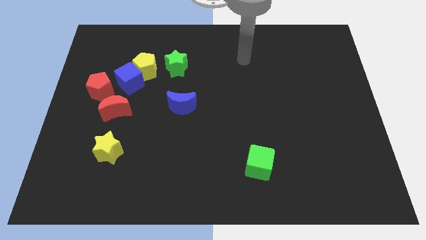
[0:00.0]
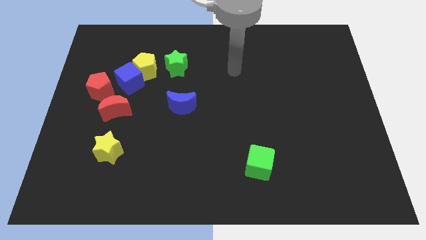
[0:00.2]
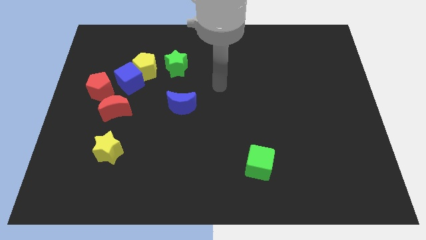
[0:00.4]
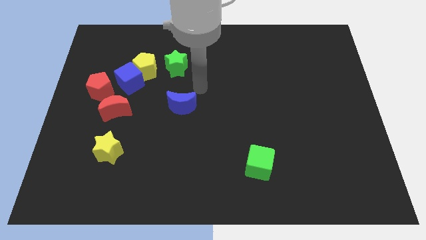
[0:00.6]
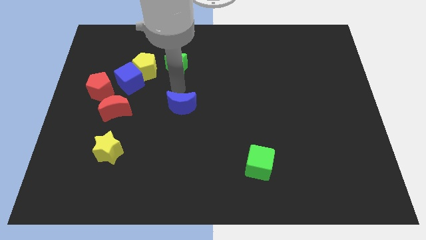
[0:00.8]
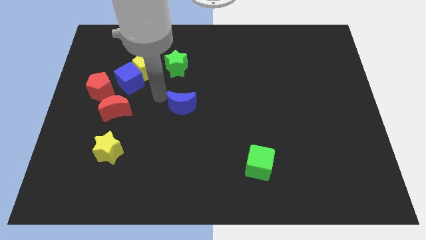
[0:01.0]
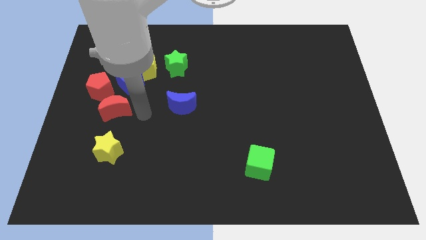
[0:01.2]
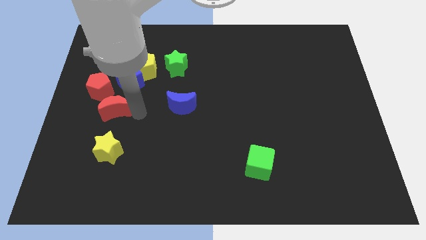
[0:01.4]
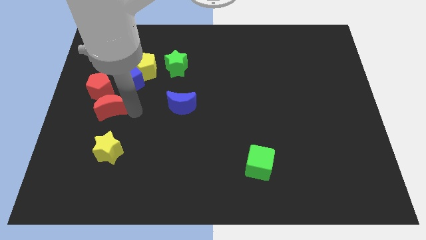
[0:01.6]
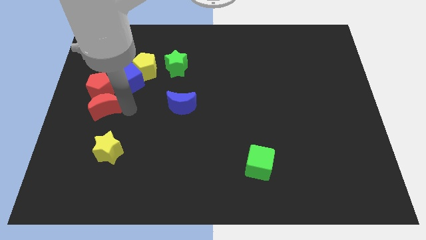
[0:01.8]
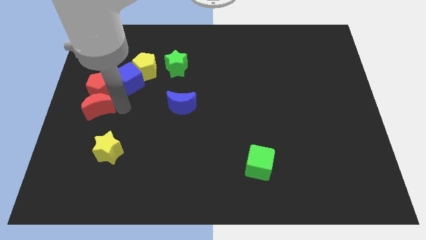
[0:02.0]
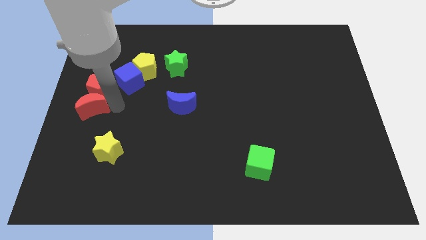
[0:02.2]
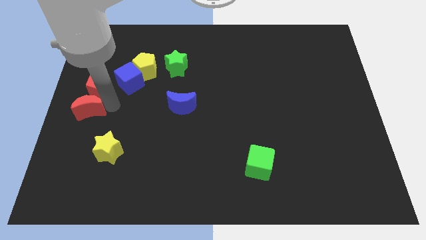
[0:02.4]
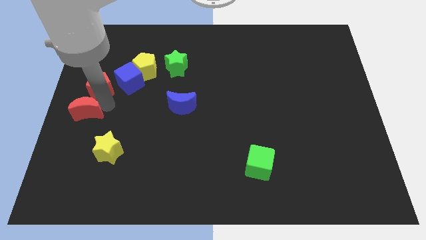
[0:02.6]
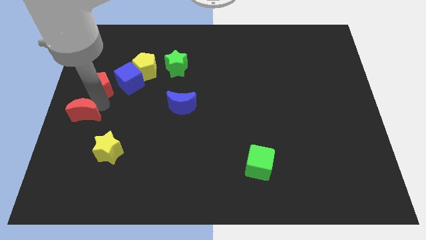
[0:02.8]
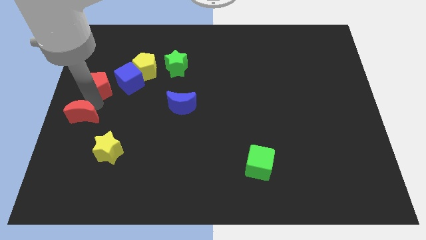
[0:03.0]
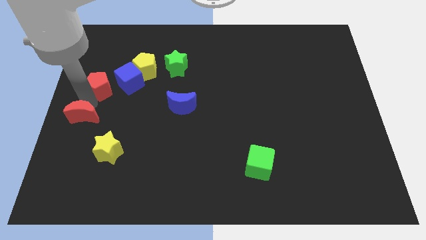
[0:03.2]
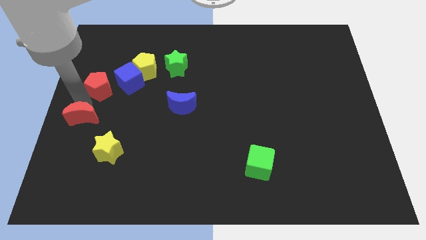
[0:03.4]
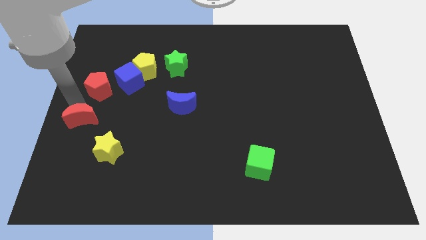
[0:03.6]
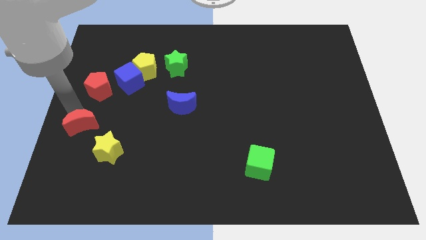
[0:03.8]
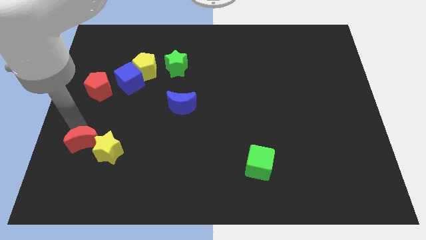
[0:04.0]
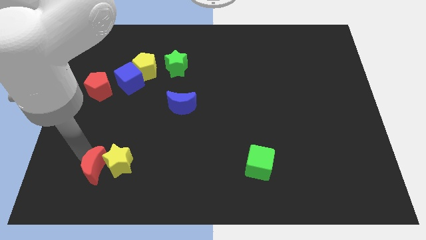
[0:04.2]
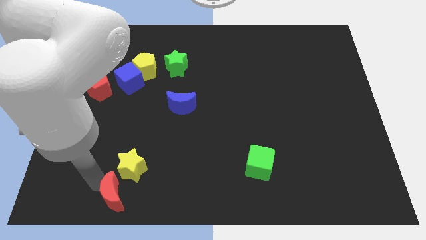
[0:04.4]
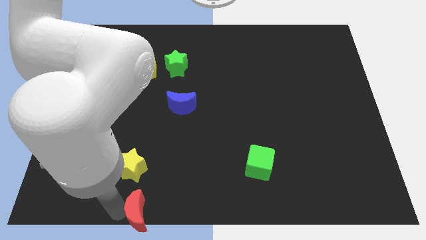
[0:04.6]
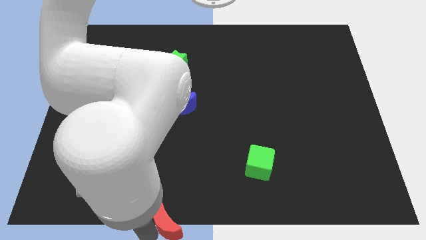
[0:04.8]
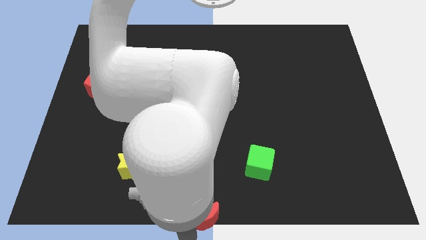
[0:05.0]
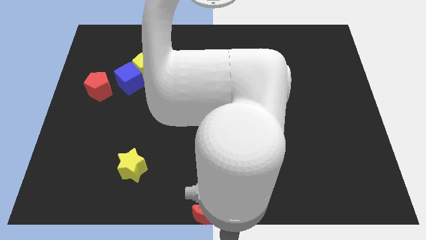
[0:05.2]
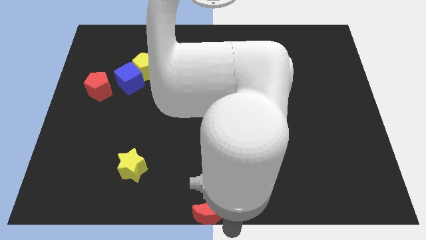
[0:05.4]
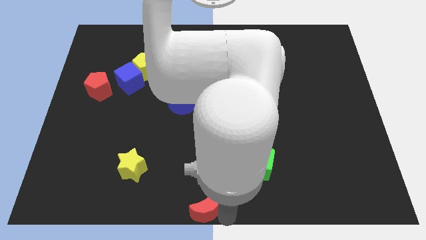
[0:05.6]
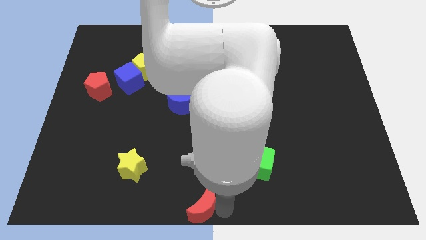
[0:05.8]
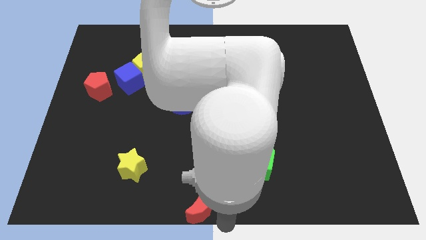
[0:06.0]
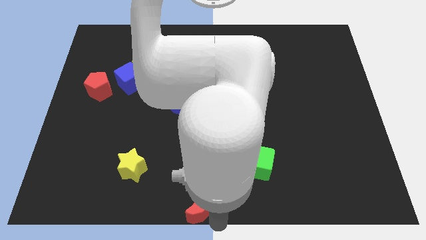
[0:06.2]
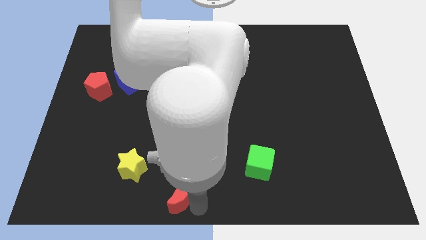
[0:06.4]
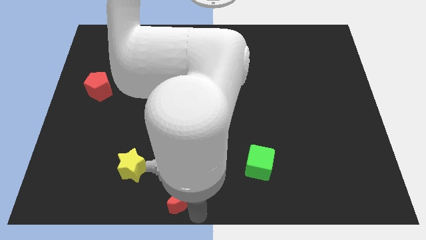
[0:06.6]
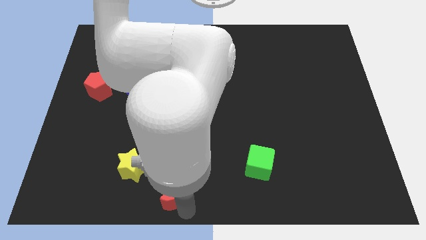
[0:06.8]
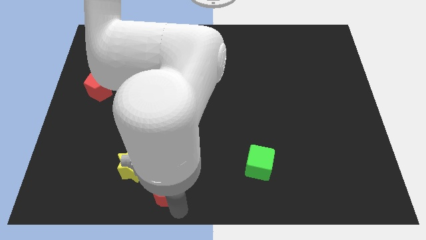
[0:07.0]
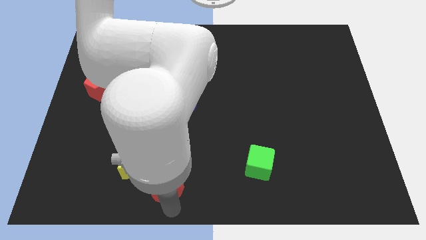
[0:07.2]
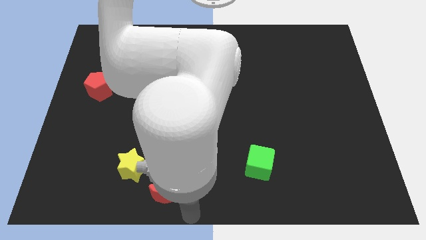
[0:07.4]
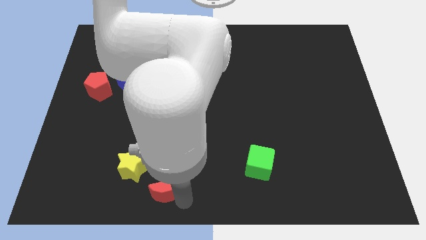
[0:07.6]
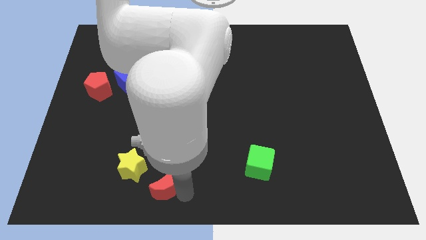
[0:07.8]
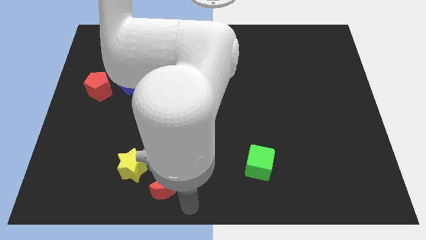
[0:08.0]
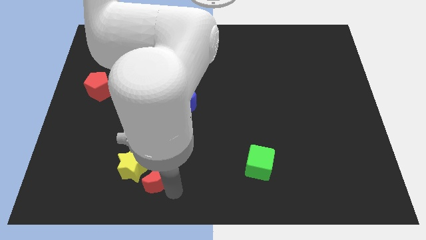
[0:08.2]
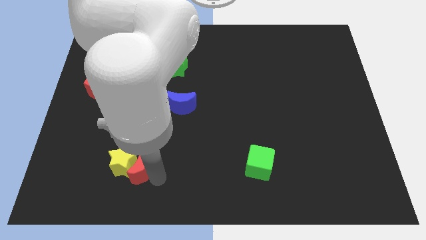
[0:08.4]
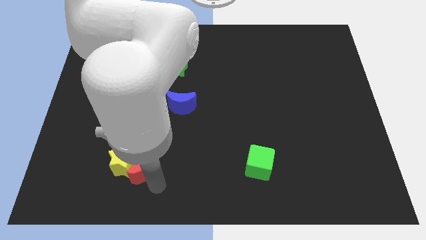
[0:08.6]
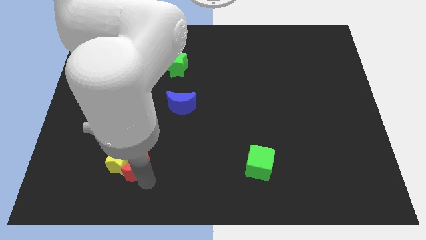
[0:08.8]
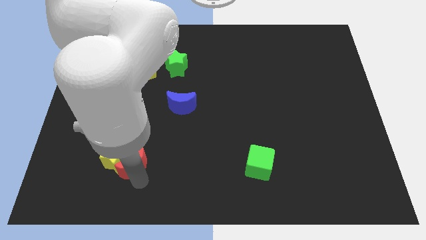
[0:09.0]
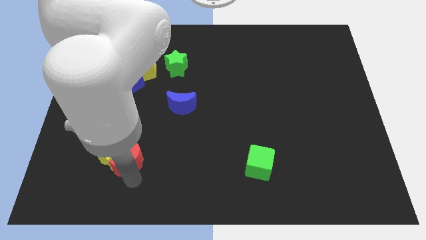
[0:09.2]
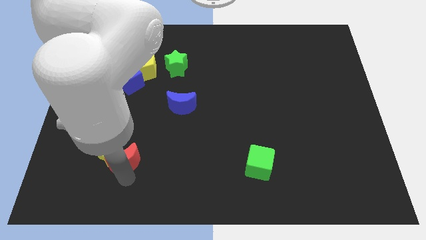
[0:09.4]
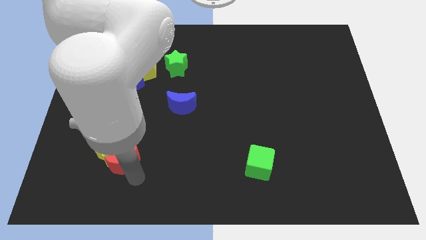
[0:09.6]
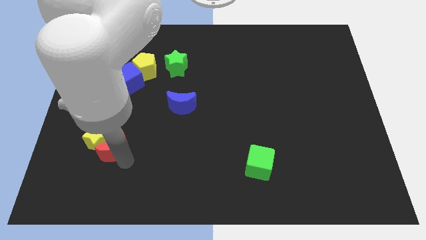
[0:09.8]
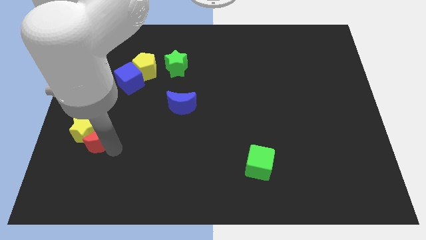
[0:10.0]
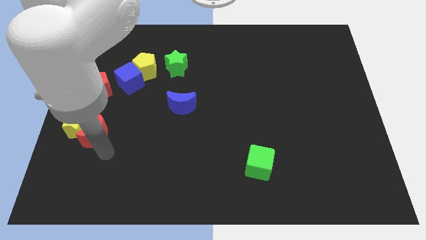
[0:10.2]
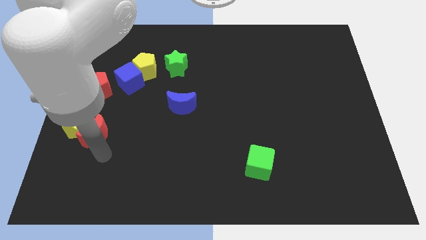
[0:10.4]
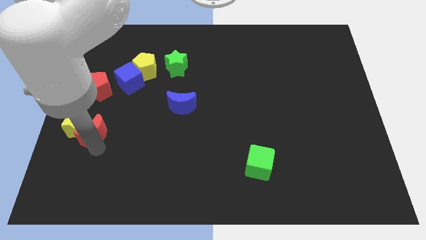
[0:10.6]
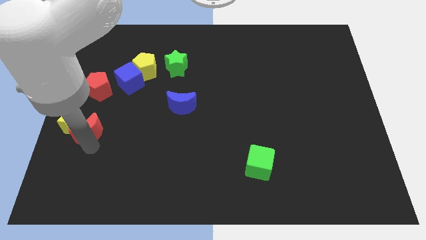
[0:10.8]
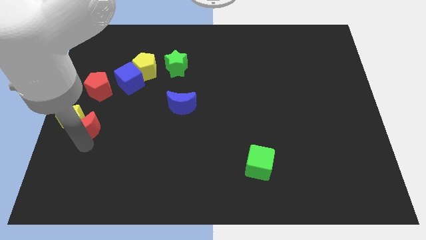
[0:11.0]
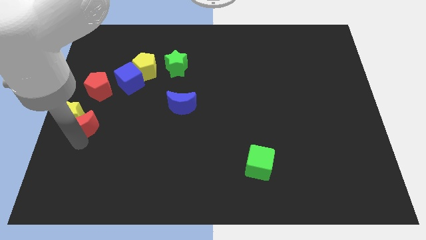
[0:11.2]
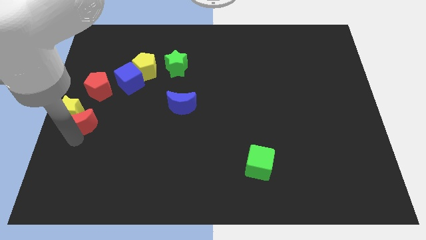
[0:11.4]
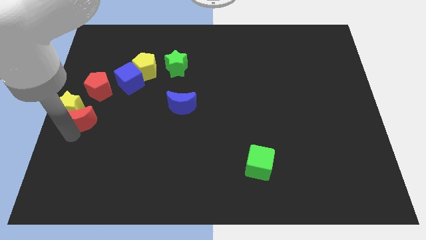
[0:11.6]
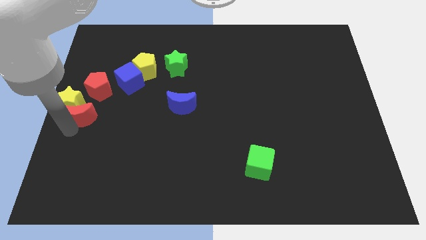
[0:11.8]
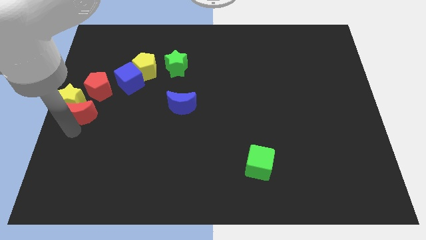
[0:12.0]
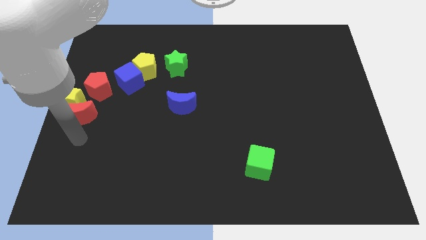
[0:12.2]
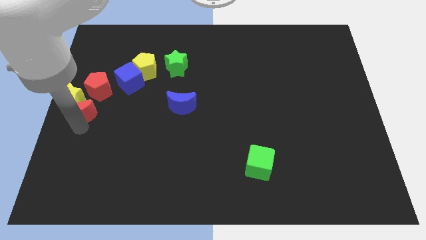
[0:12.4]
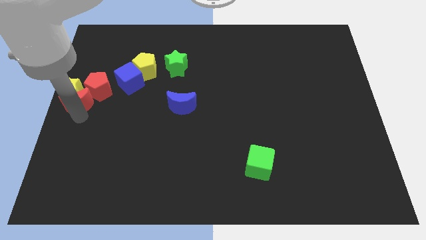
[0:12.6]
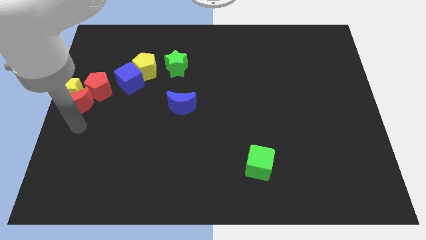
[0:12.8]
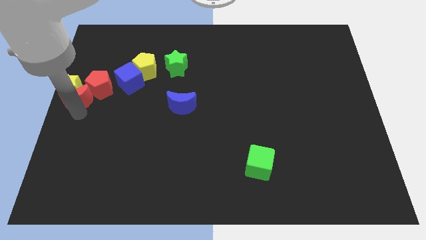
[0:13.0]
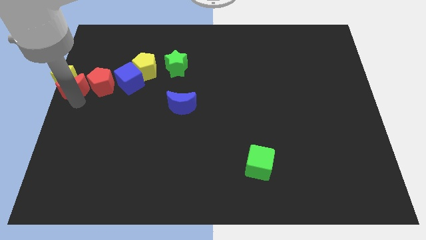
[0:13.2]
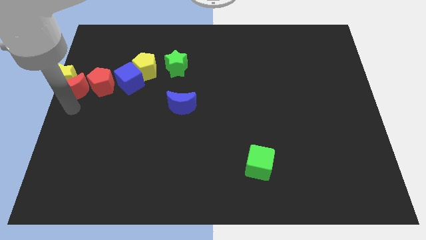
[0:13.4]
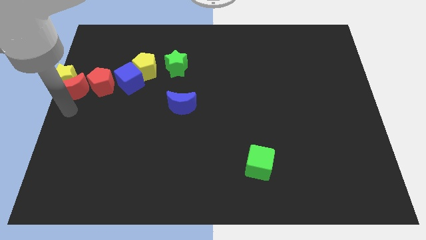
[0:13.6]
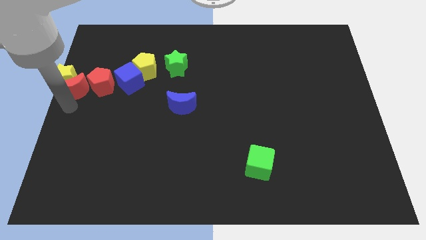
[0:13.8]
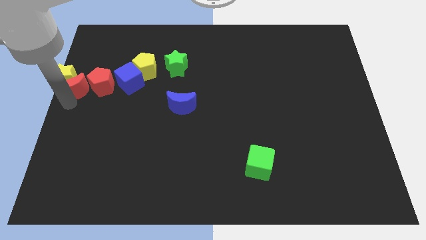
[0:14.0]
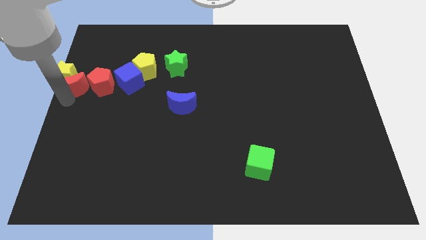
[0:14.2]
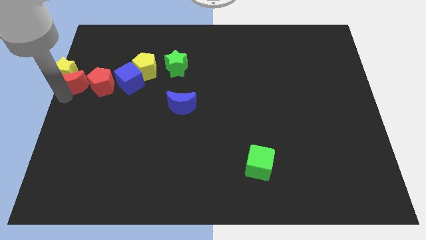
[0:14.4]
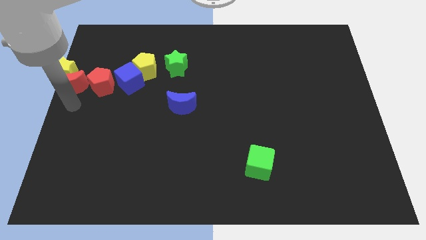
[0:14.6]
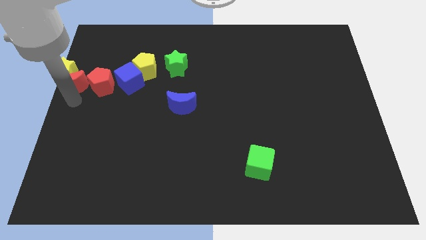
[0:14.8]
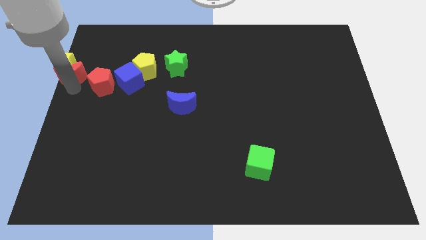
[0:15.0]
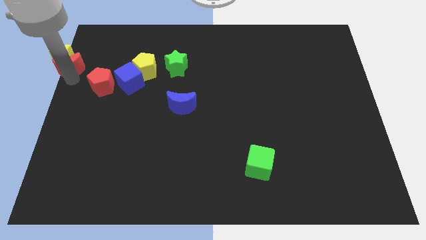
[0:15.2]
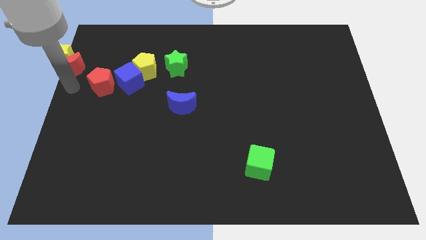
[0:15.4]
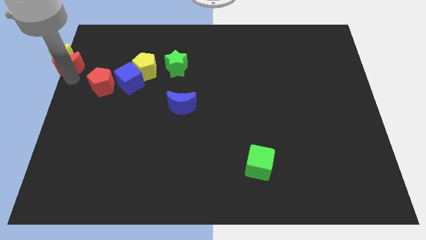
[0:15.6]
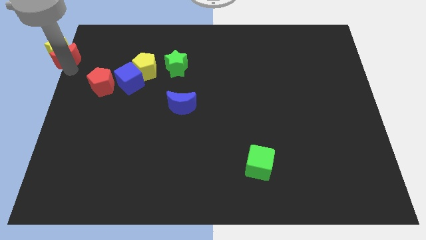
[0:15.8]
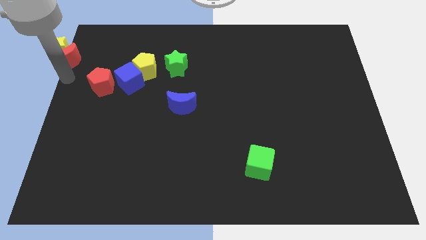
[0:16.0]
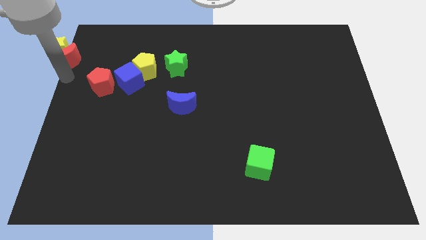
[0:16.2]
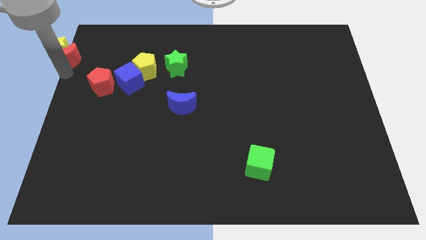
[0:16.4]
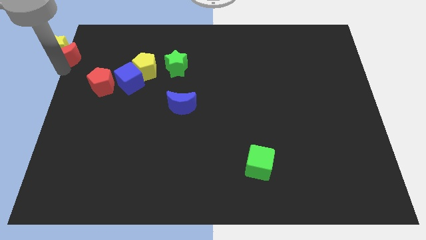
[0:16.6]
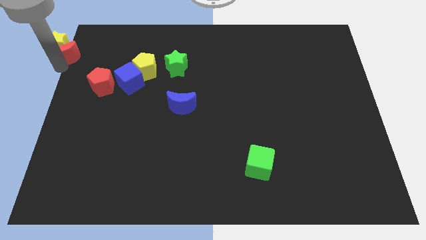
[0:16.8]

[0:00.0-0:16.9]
slide the red moon to the upper left corner
